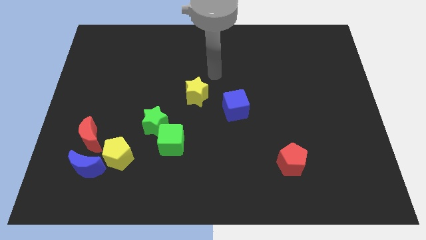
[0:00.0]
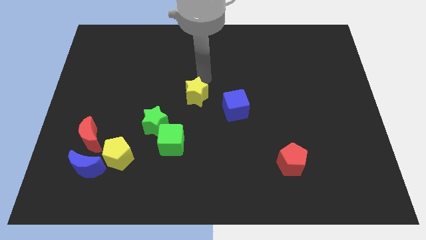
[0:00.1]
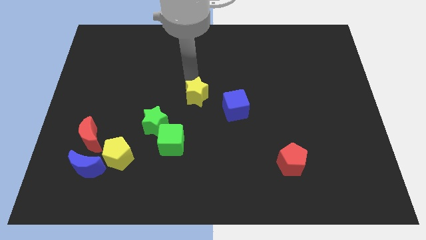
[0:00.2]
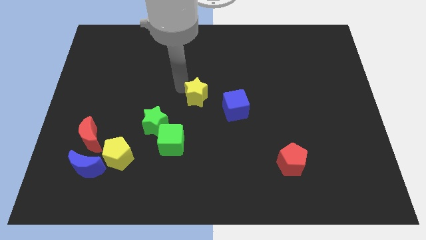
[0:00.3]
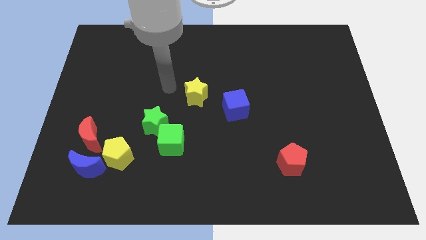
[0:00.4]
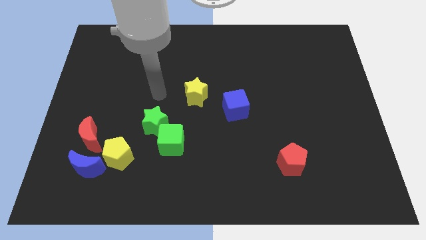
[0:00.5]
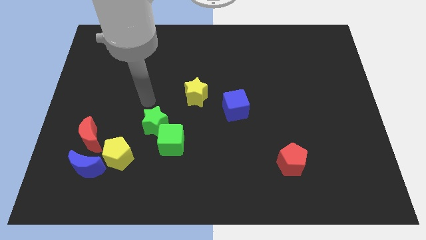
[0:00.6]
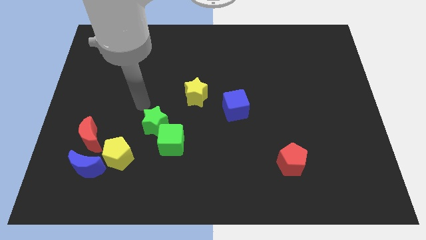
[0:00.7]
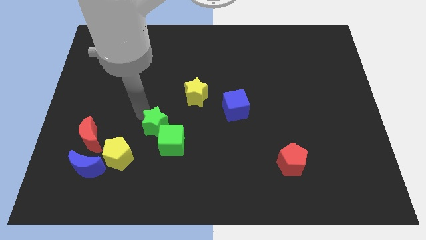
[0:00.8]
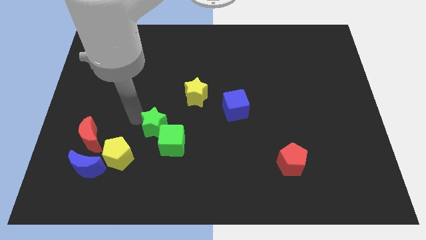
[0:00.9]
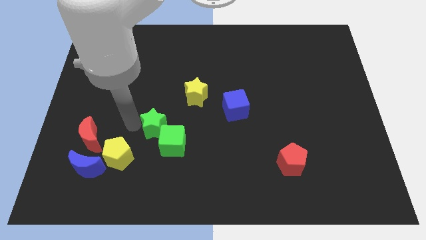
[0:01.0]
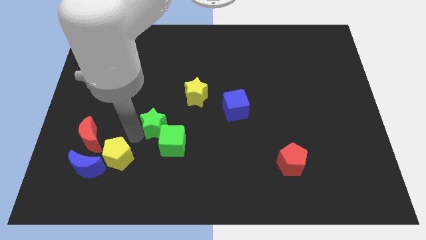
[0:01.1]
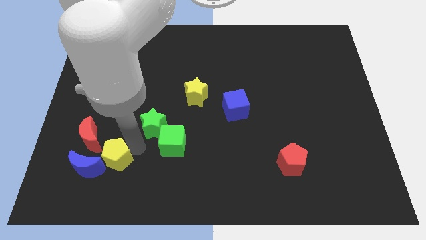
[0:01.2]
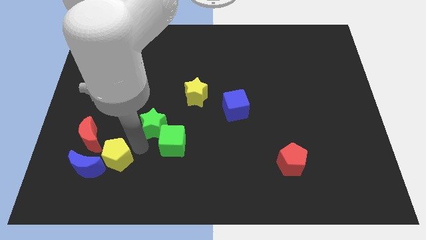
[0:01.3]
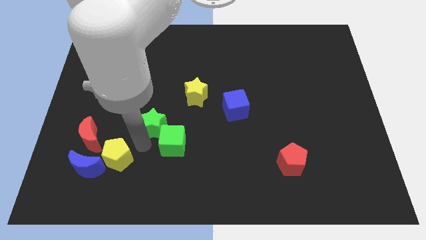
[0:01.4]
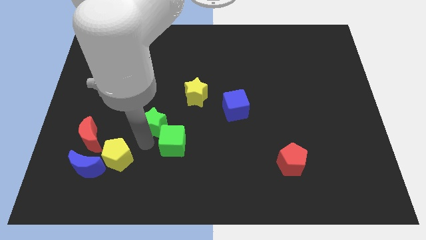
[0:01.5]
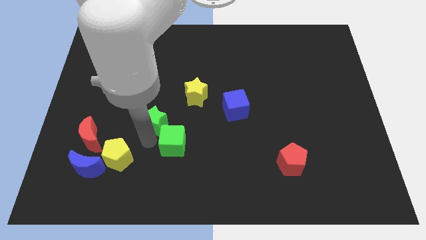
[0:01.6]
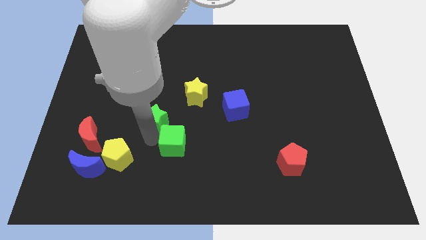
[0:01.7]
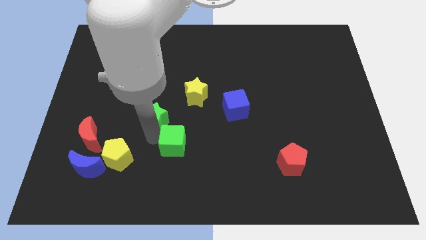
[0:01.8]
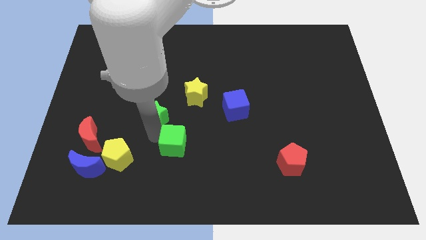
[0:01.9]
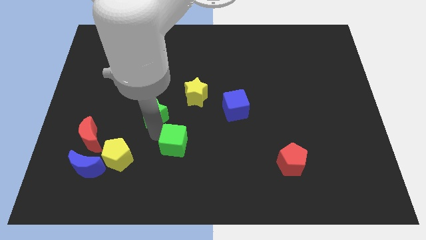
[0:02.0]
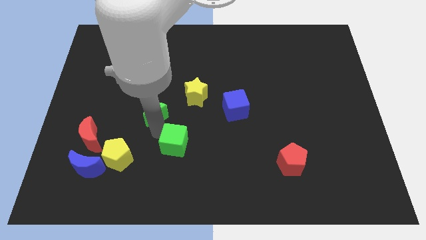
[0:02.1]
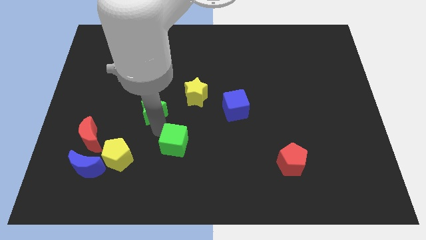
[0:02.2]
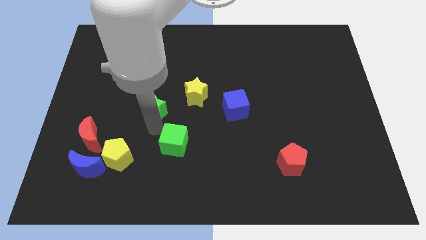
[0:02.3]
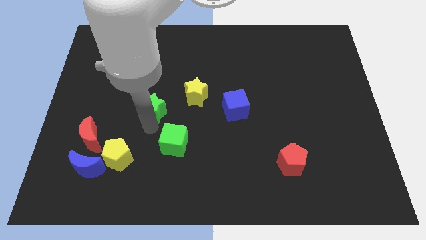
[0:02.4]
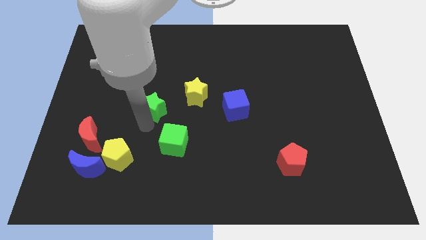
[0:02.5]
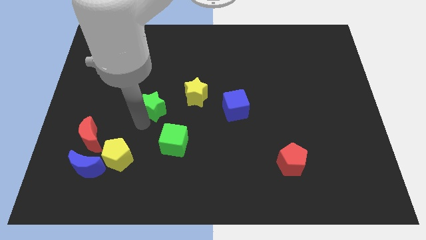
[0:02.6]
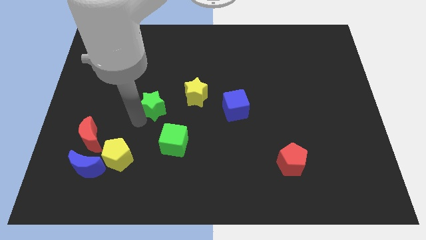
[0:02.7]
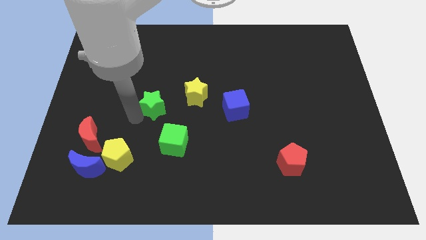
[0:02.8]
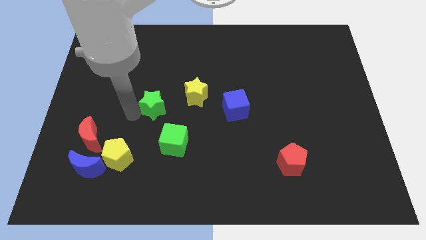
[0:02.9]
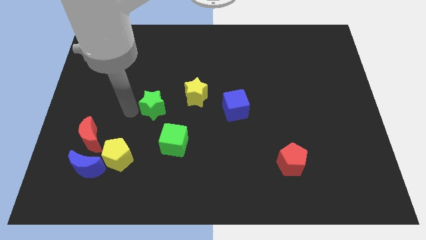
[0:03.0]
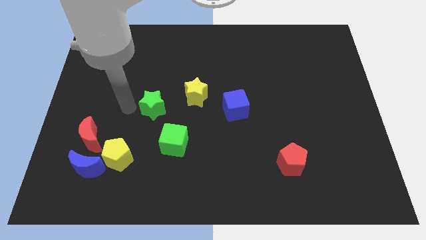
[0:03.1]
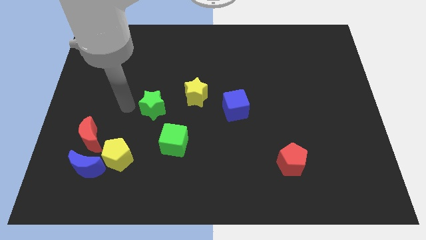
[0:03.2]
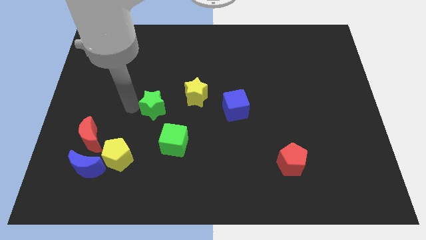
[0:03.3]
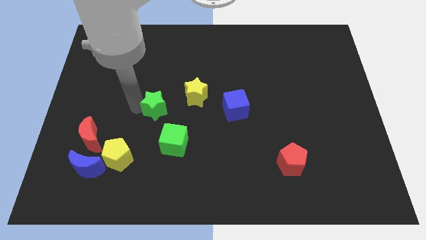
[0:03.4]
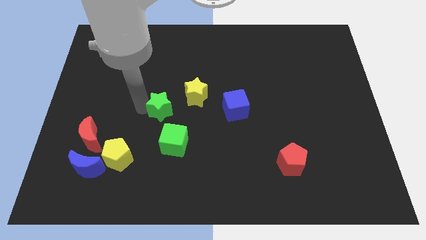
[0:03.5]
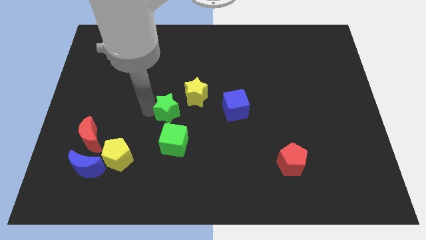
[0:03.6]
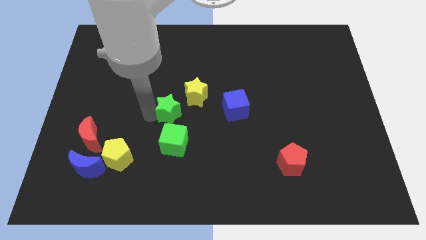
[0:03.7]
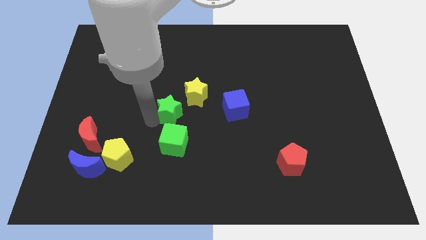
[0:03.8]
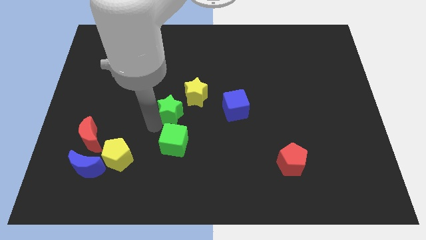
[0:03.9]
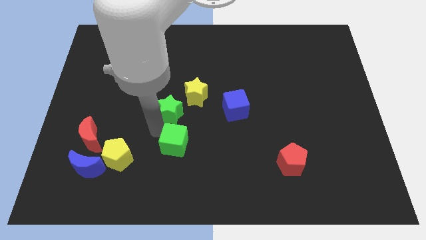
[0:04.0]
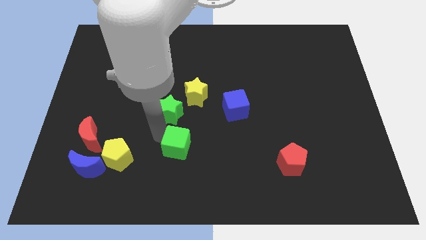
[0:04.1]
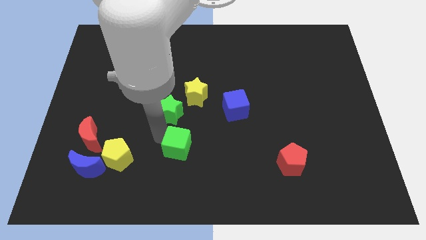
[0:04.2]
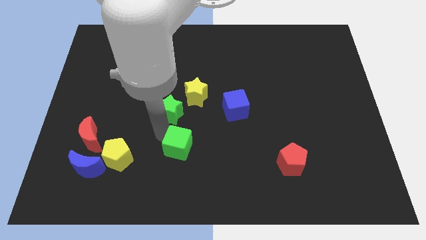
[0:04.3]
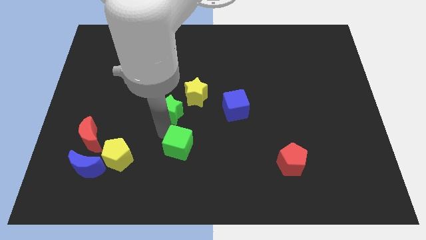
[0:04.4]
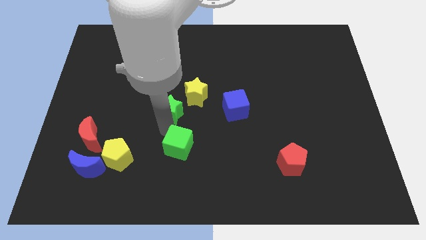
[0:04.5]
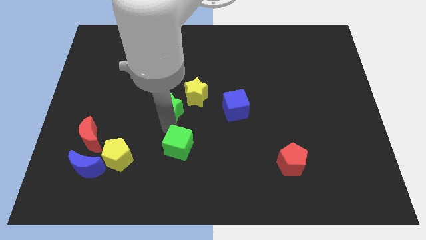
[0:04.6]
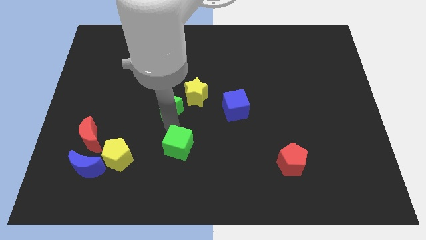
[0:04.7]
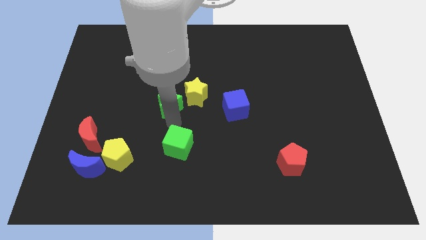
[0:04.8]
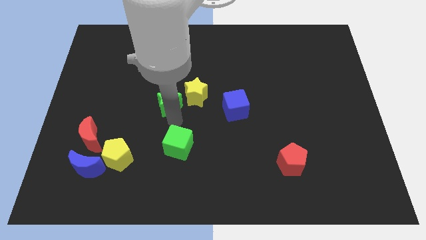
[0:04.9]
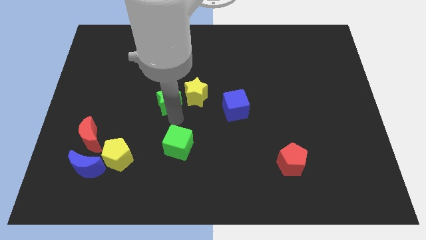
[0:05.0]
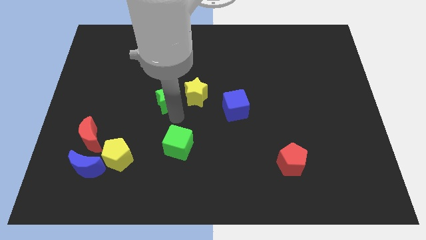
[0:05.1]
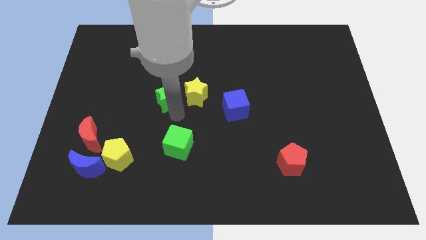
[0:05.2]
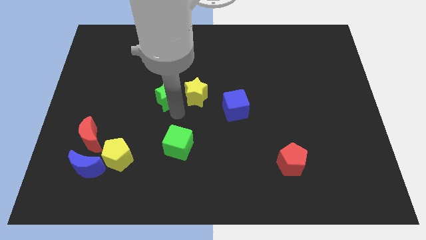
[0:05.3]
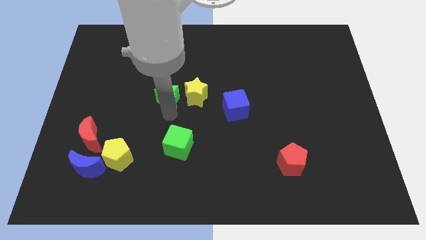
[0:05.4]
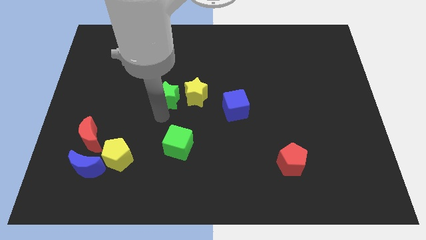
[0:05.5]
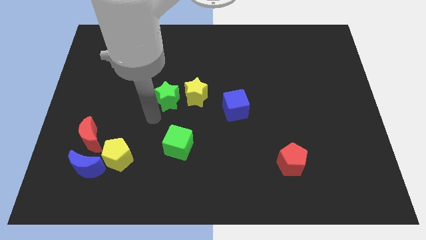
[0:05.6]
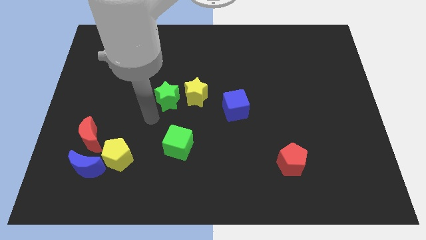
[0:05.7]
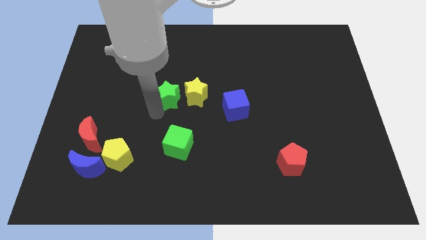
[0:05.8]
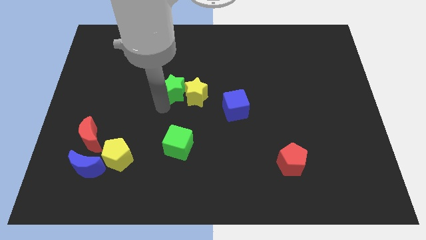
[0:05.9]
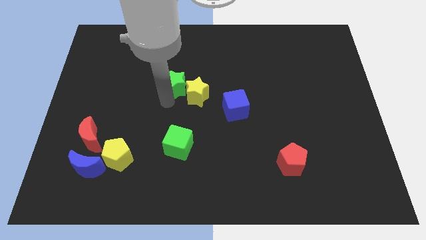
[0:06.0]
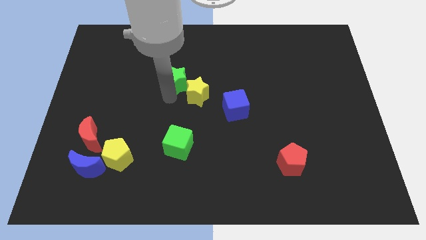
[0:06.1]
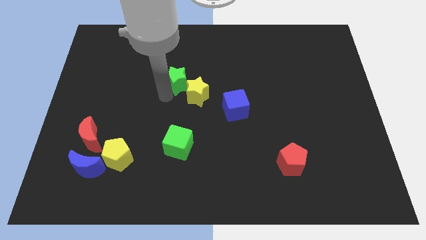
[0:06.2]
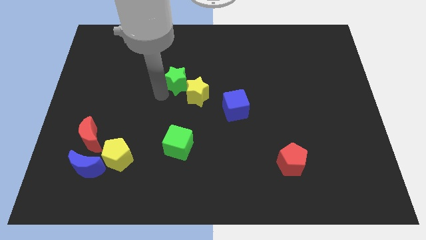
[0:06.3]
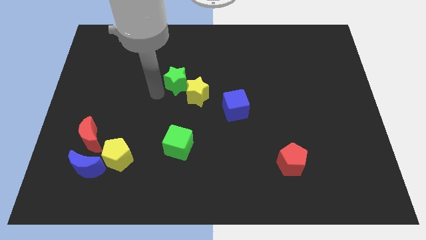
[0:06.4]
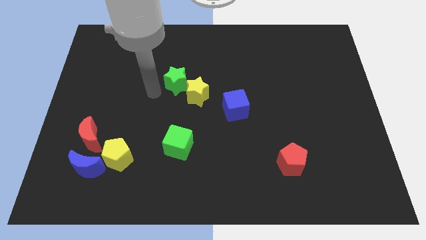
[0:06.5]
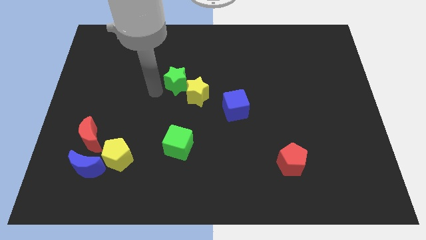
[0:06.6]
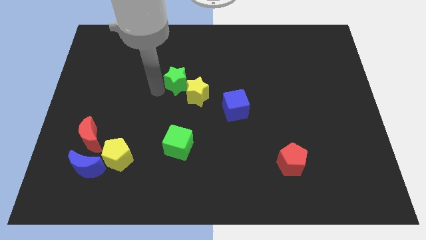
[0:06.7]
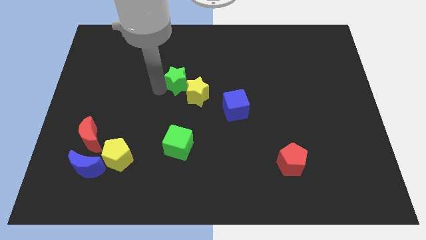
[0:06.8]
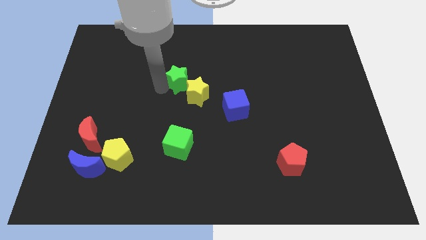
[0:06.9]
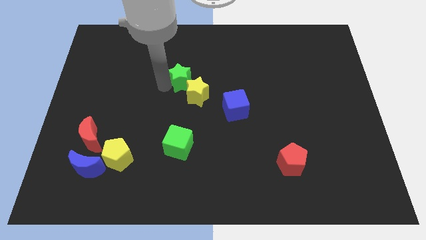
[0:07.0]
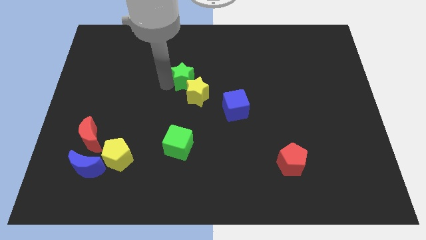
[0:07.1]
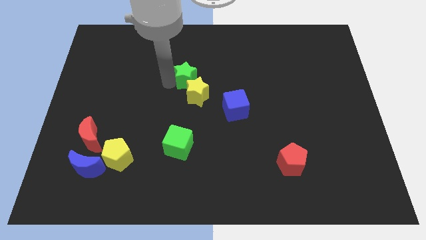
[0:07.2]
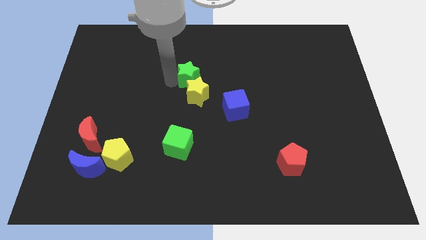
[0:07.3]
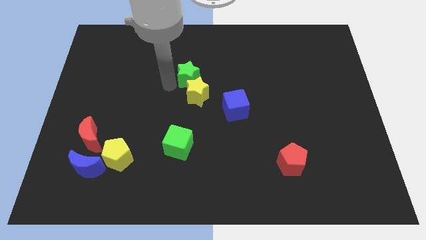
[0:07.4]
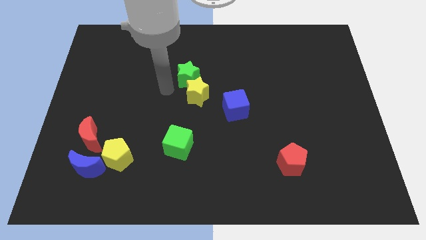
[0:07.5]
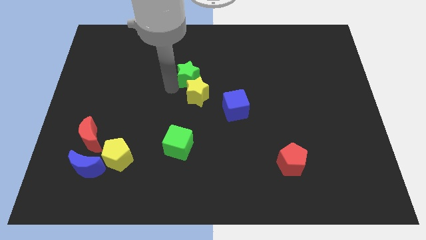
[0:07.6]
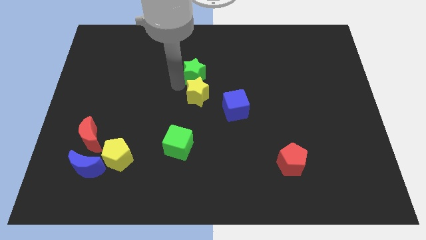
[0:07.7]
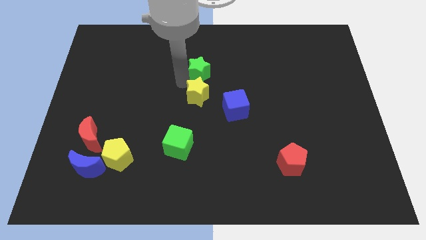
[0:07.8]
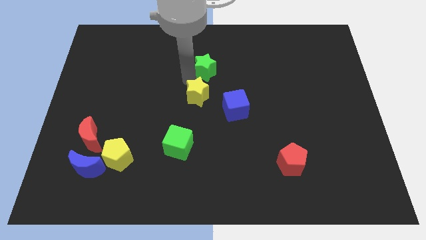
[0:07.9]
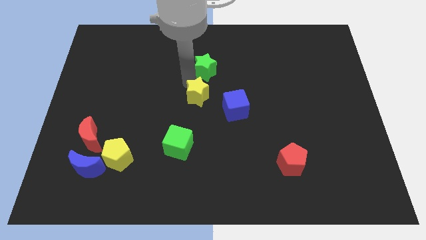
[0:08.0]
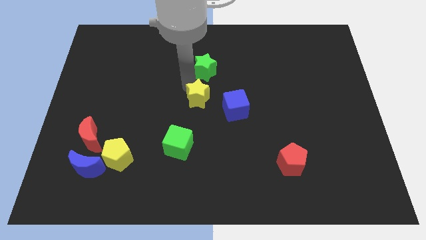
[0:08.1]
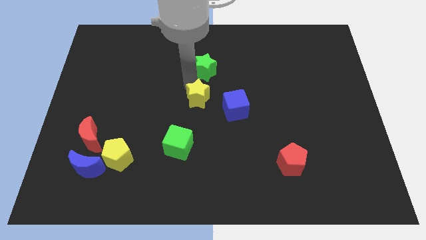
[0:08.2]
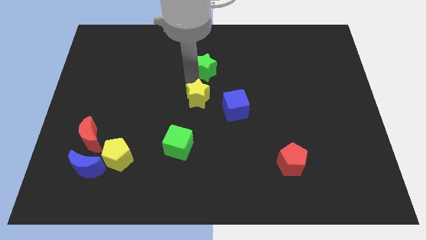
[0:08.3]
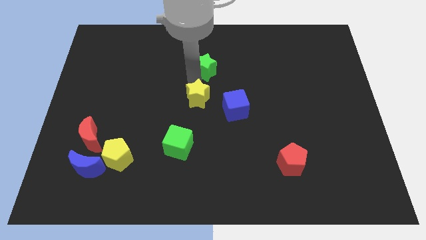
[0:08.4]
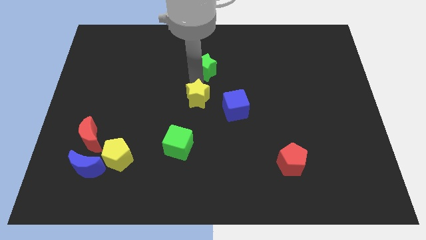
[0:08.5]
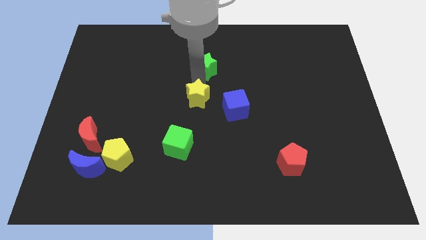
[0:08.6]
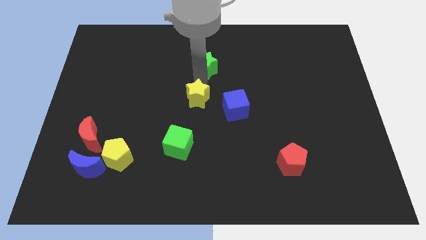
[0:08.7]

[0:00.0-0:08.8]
push the green star up and then right
